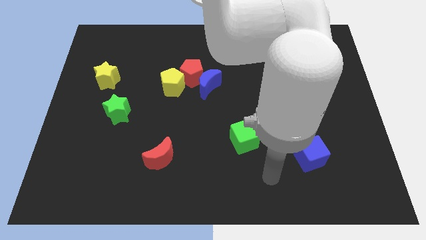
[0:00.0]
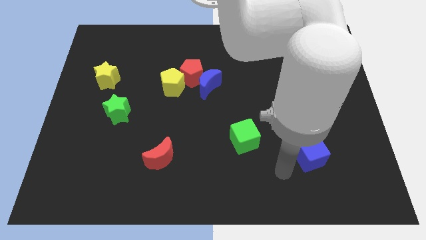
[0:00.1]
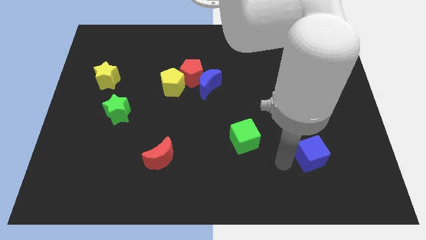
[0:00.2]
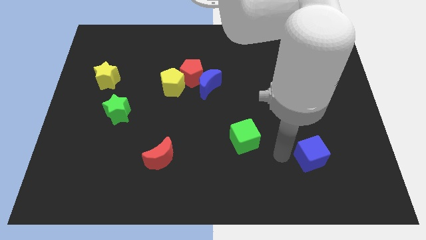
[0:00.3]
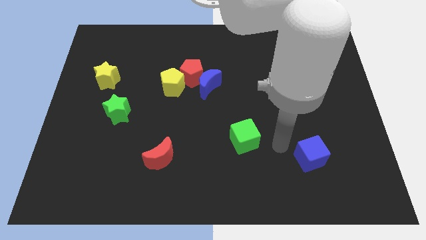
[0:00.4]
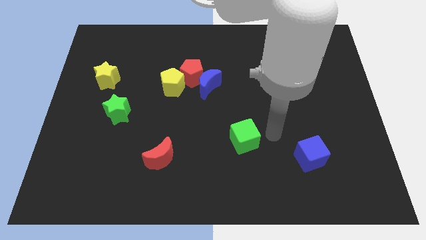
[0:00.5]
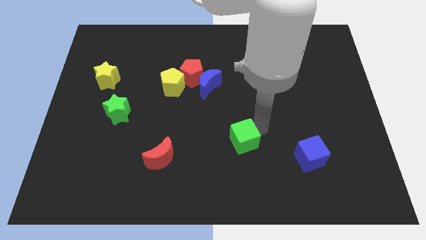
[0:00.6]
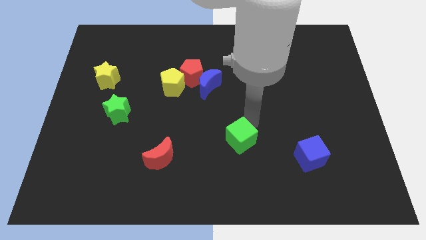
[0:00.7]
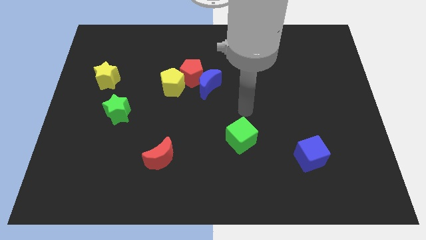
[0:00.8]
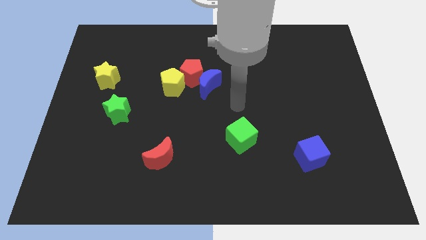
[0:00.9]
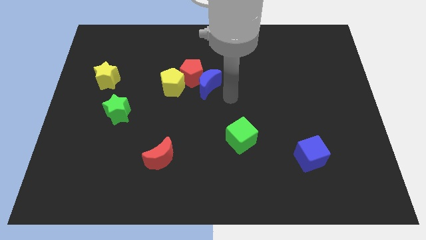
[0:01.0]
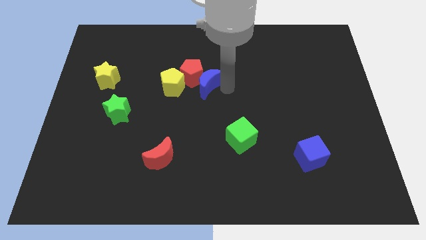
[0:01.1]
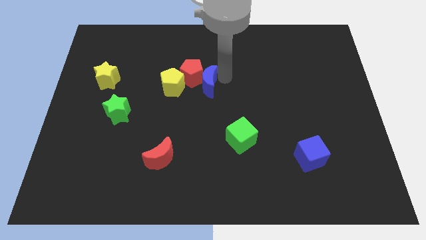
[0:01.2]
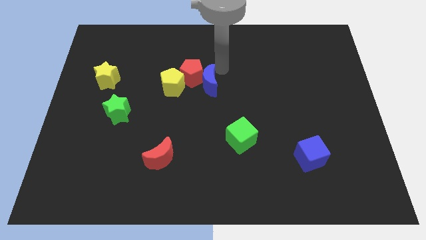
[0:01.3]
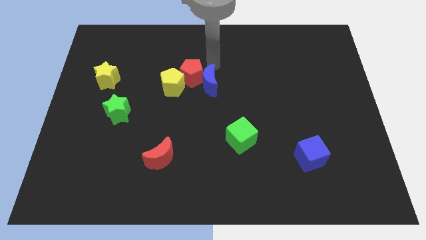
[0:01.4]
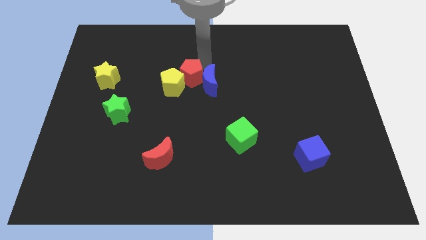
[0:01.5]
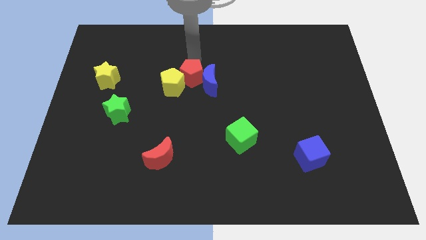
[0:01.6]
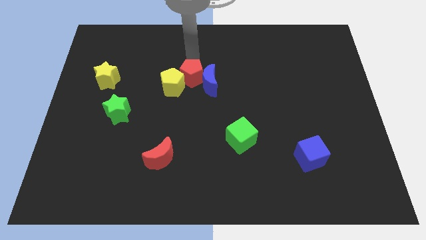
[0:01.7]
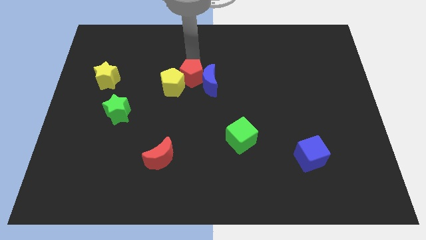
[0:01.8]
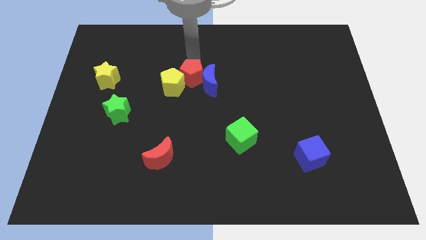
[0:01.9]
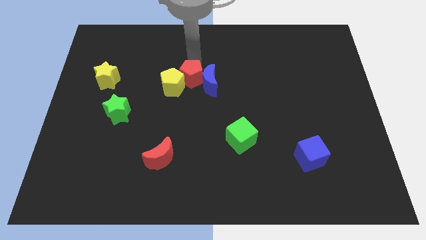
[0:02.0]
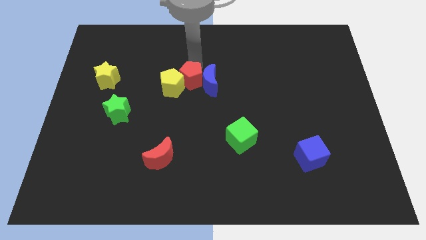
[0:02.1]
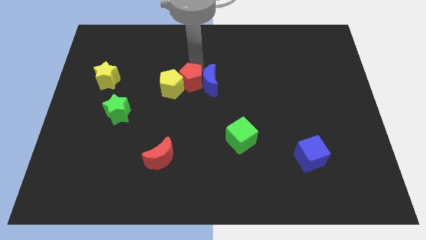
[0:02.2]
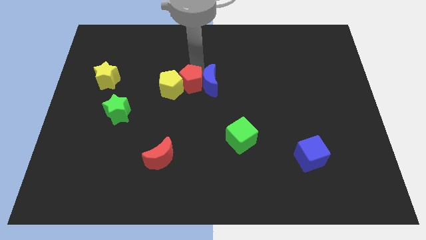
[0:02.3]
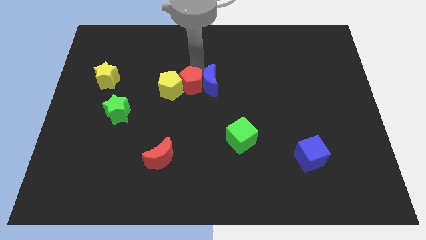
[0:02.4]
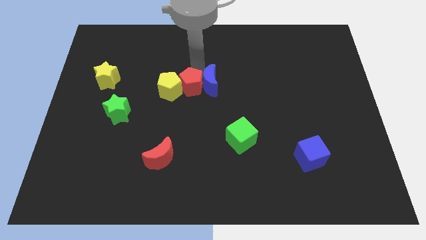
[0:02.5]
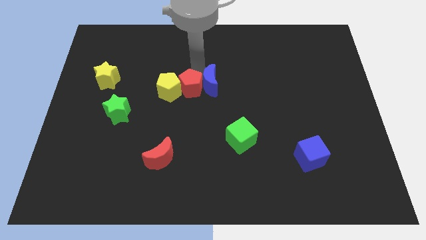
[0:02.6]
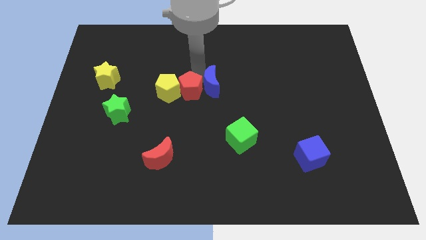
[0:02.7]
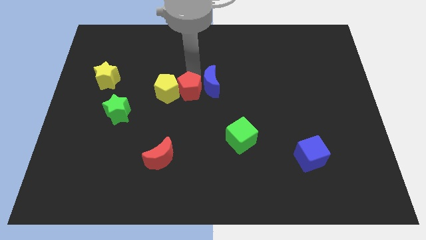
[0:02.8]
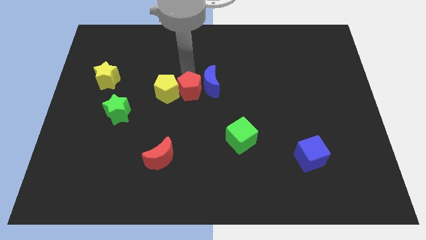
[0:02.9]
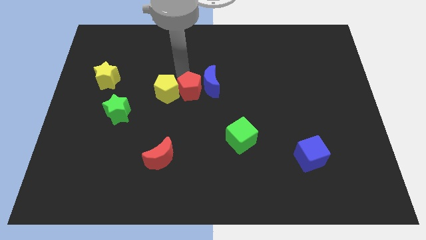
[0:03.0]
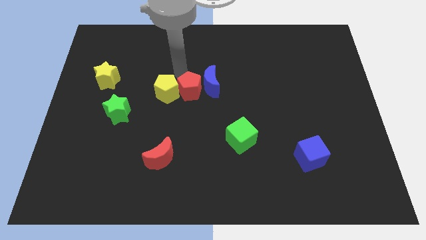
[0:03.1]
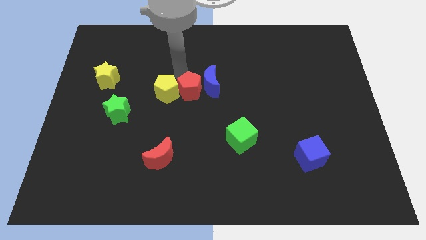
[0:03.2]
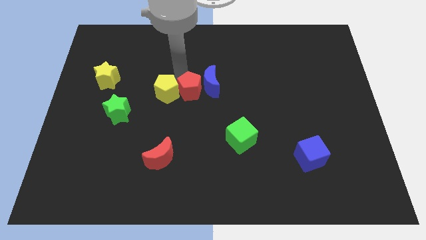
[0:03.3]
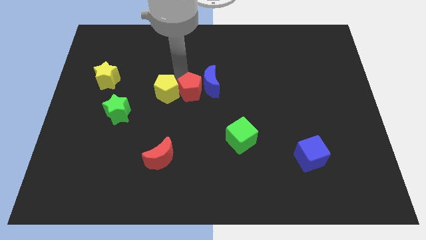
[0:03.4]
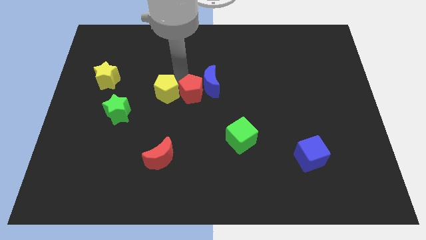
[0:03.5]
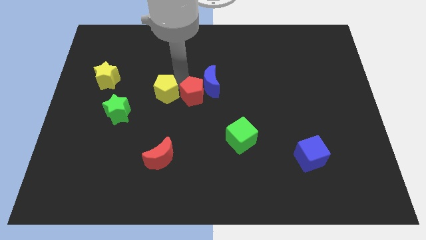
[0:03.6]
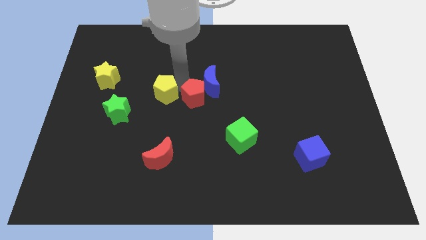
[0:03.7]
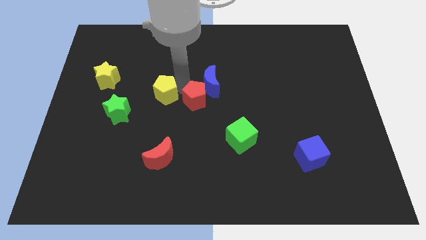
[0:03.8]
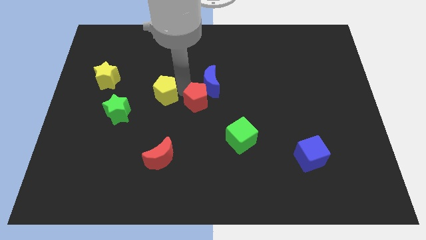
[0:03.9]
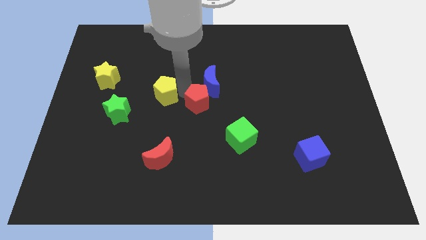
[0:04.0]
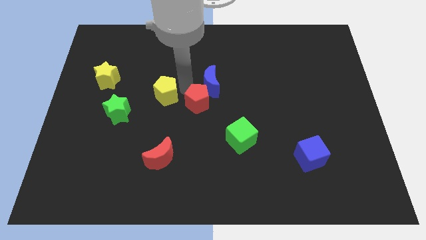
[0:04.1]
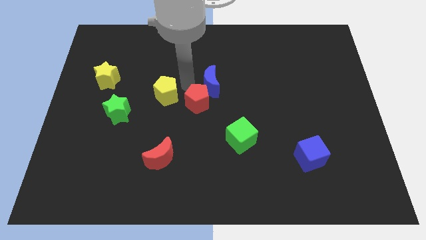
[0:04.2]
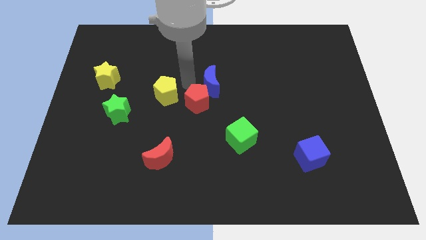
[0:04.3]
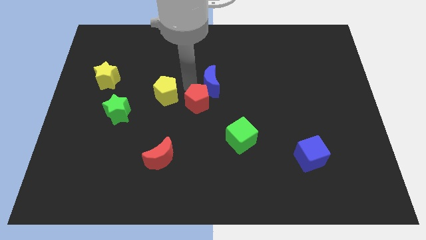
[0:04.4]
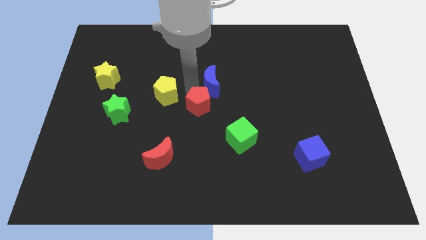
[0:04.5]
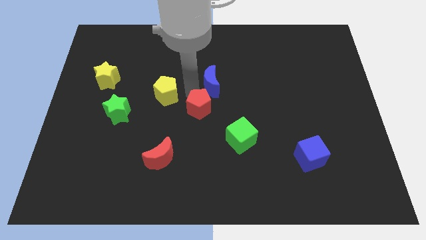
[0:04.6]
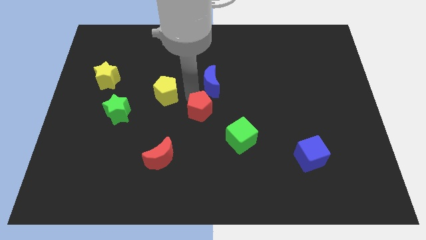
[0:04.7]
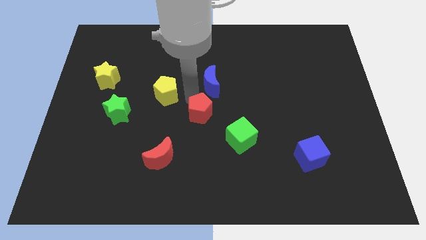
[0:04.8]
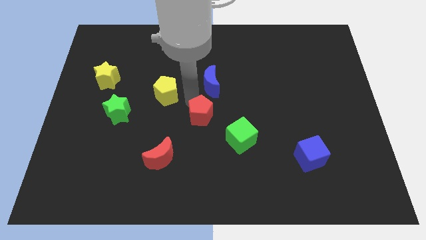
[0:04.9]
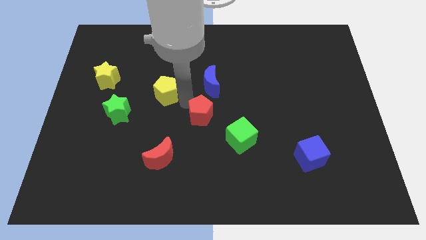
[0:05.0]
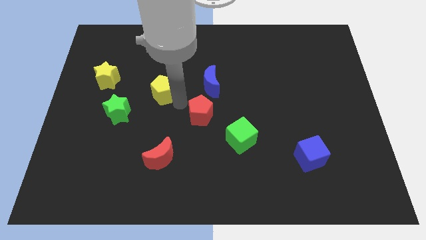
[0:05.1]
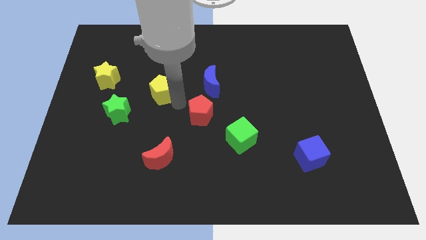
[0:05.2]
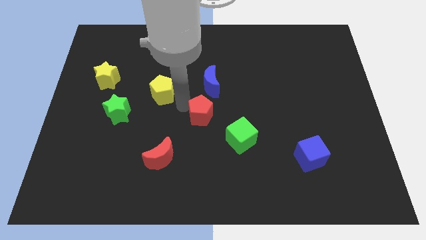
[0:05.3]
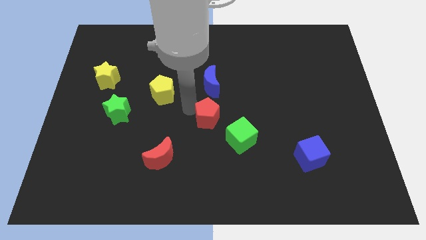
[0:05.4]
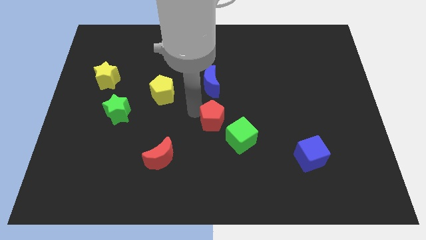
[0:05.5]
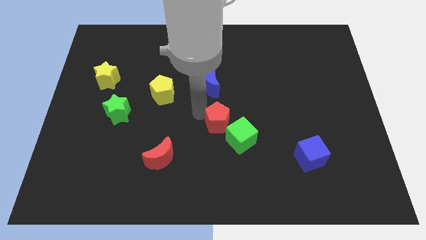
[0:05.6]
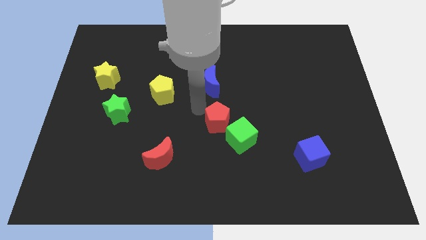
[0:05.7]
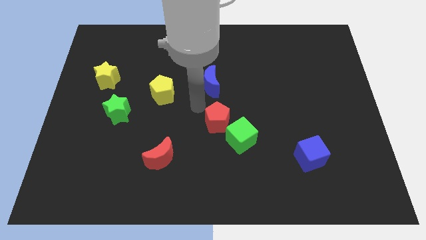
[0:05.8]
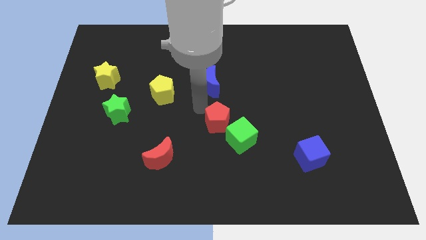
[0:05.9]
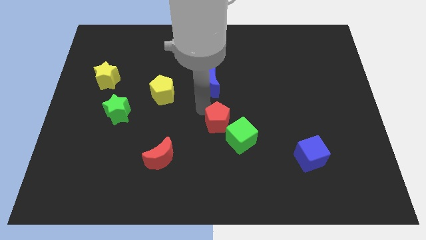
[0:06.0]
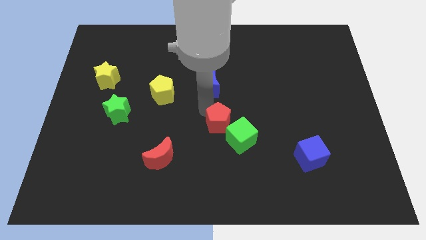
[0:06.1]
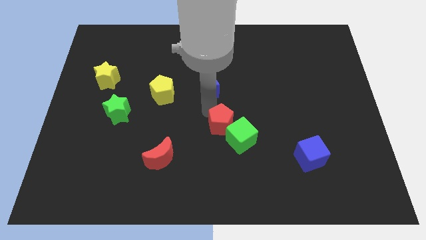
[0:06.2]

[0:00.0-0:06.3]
move the red pentagon to the green cube

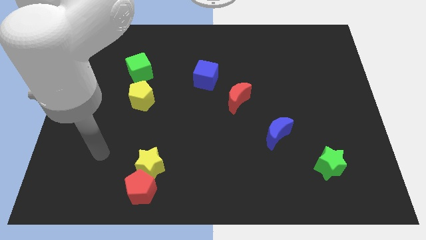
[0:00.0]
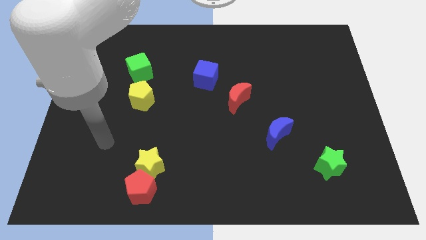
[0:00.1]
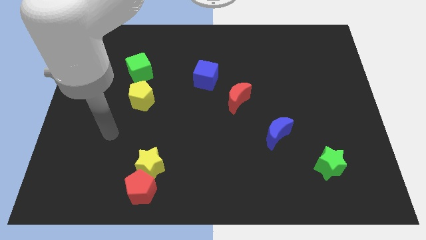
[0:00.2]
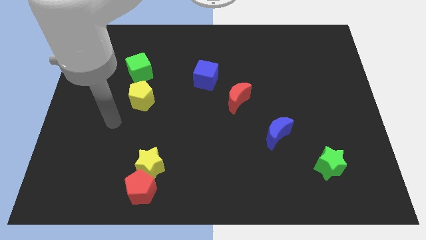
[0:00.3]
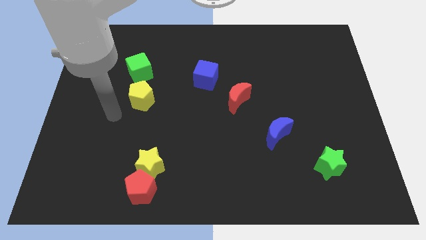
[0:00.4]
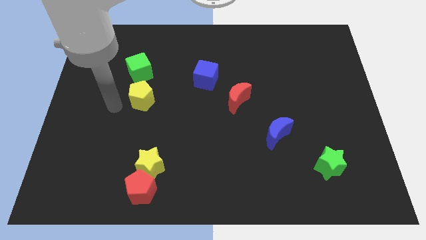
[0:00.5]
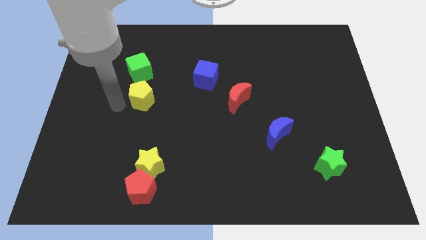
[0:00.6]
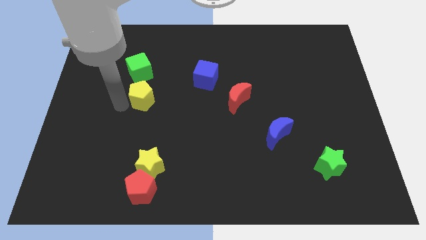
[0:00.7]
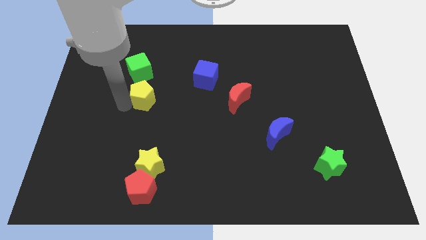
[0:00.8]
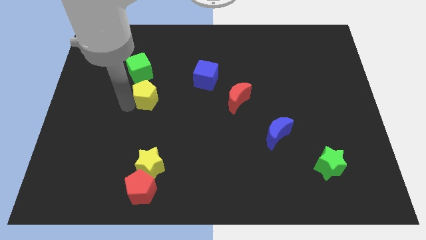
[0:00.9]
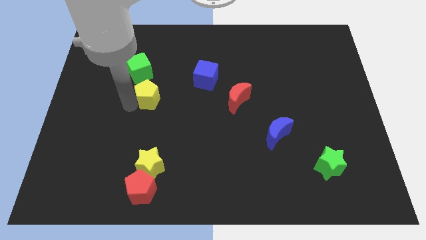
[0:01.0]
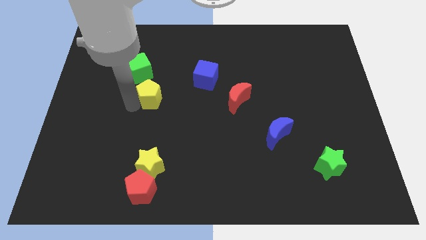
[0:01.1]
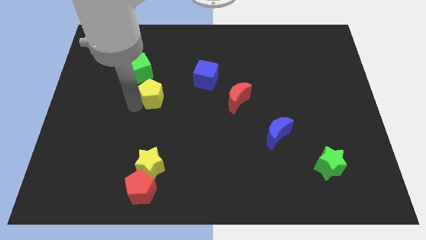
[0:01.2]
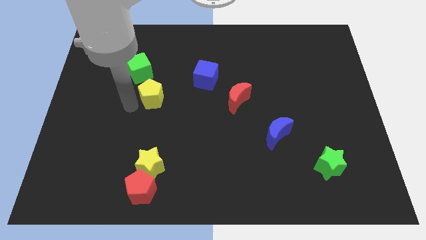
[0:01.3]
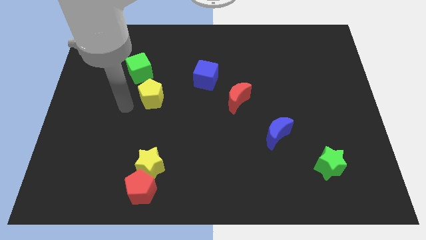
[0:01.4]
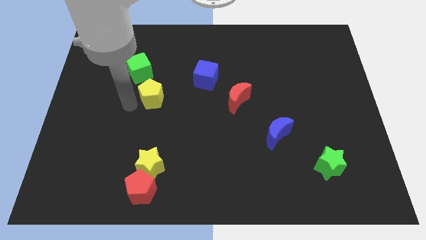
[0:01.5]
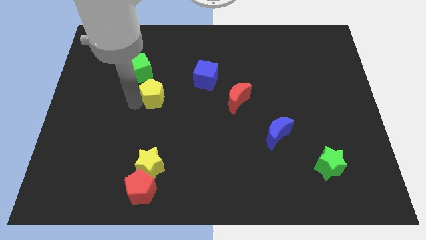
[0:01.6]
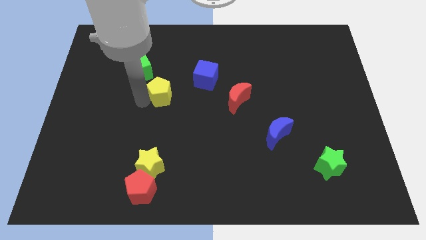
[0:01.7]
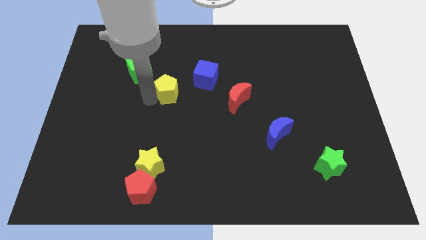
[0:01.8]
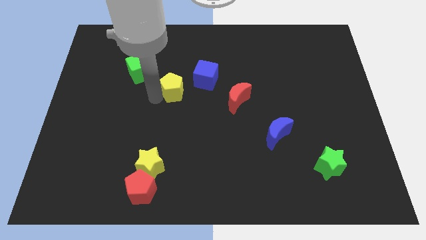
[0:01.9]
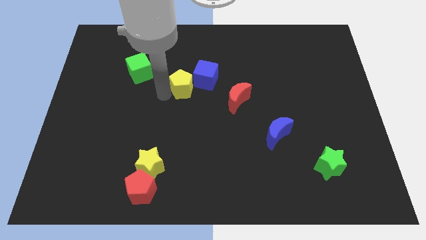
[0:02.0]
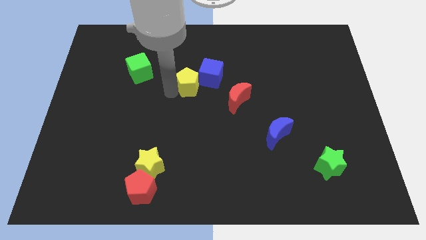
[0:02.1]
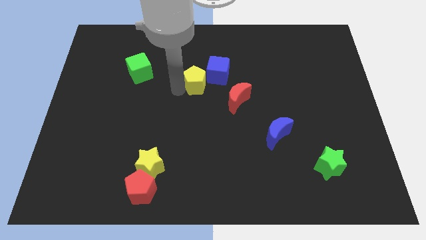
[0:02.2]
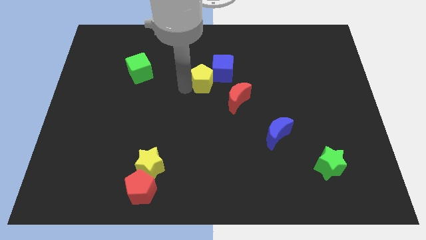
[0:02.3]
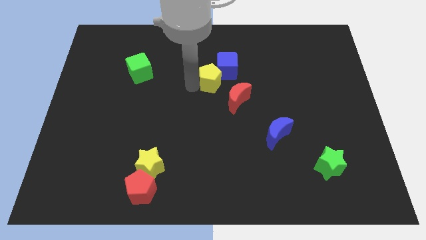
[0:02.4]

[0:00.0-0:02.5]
push the yellow pentagon towards the blue cube
